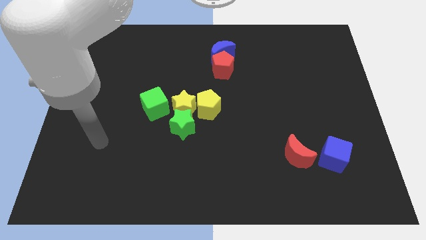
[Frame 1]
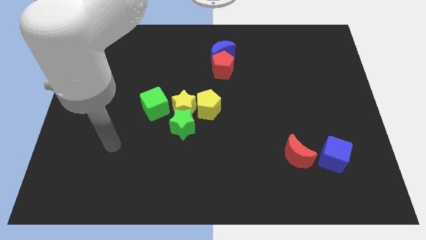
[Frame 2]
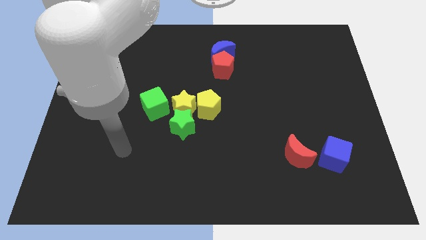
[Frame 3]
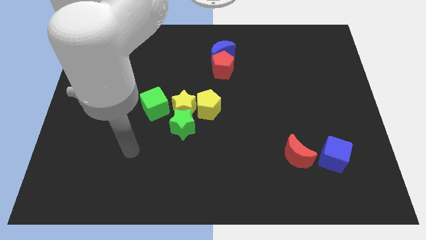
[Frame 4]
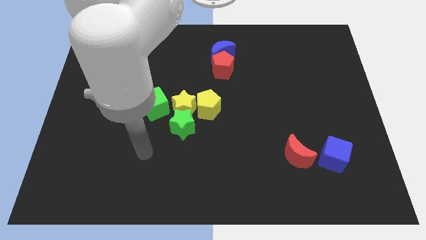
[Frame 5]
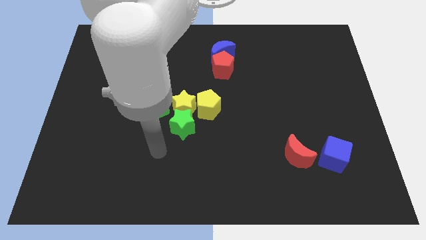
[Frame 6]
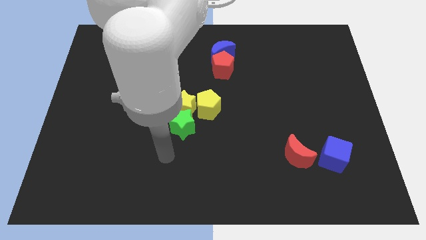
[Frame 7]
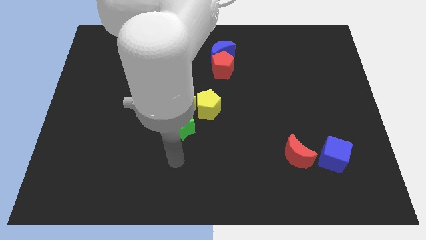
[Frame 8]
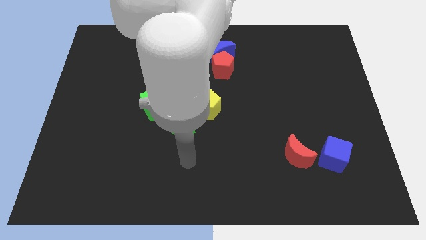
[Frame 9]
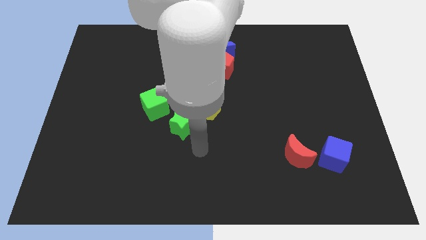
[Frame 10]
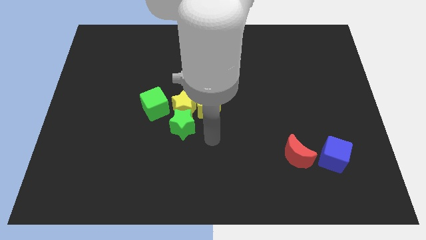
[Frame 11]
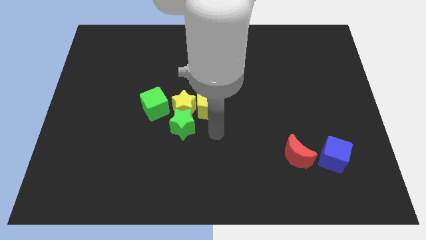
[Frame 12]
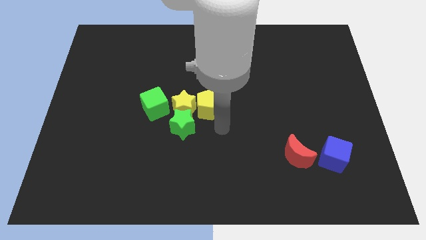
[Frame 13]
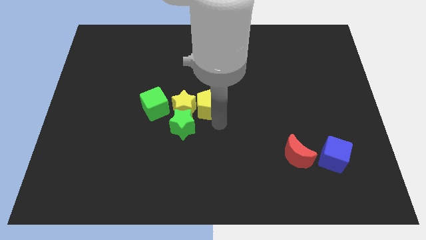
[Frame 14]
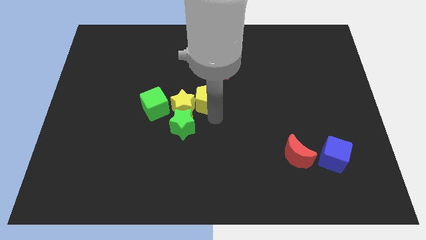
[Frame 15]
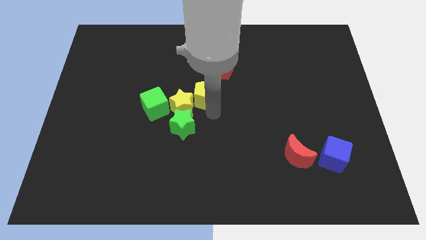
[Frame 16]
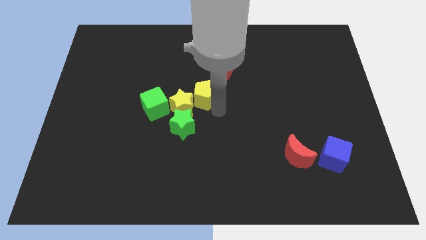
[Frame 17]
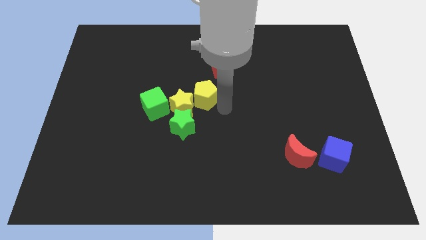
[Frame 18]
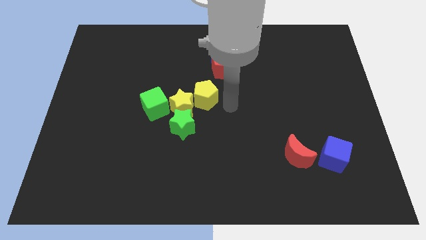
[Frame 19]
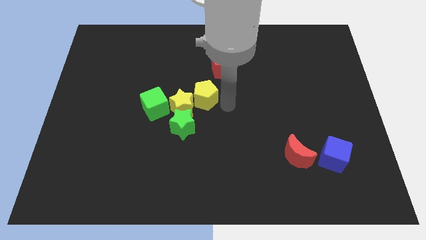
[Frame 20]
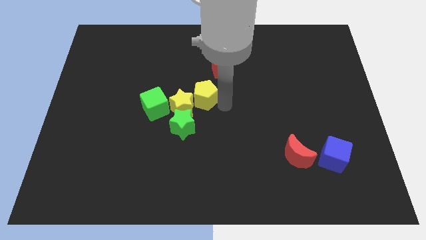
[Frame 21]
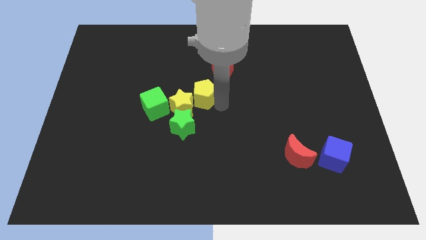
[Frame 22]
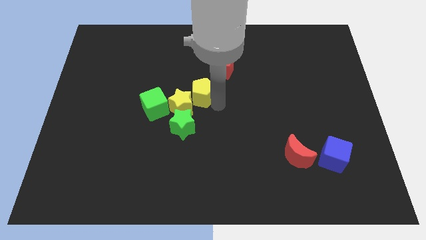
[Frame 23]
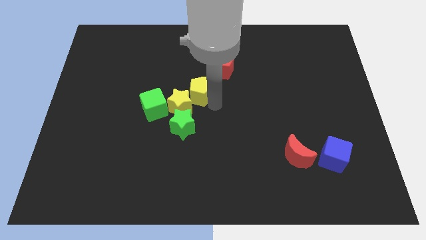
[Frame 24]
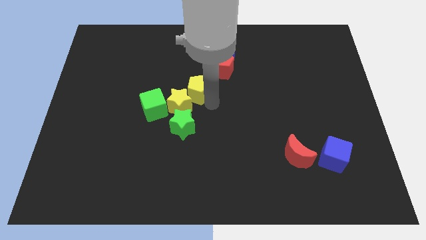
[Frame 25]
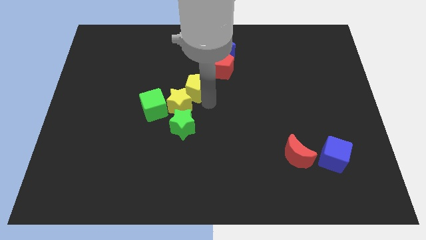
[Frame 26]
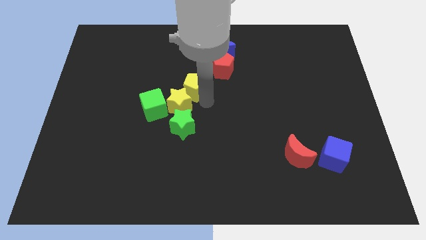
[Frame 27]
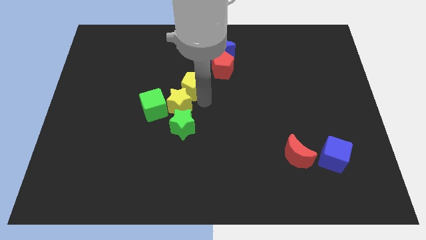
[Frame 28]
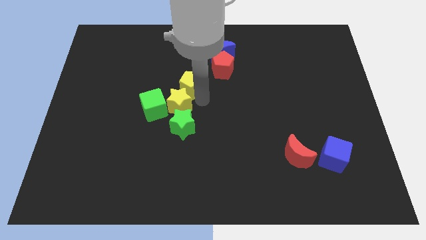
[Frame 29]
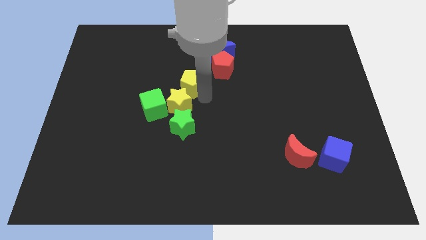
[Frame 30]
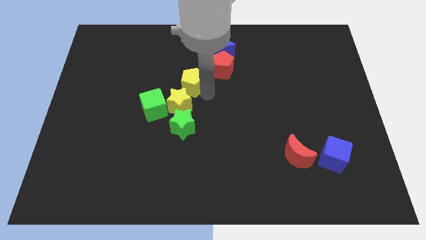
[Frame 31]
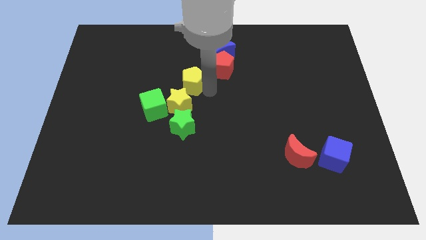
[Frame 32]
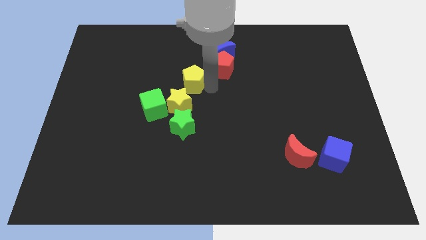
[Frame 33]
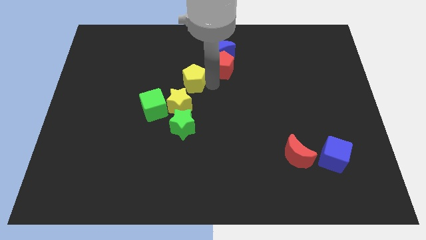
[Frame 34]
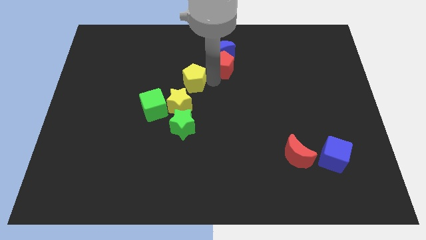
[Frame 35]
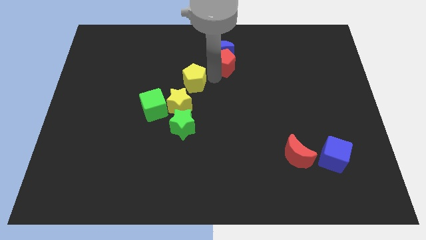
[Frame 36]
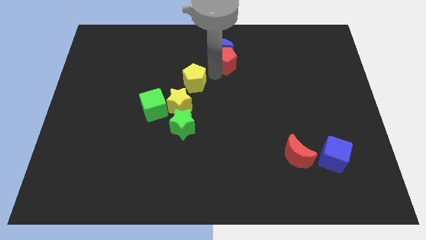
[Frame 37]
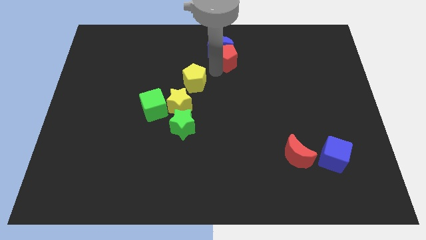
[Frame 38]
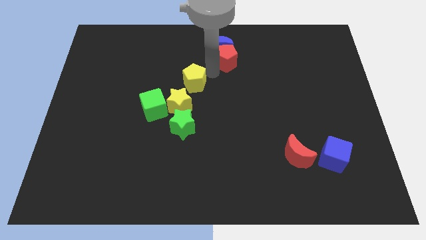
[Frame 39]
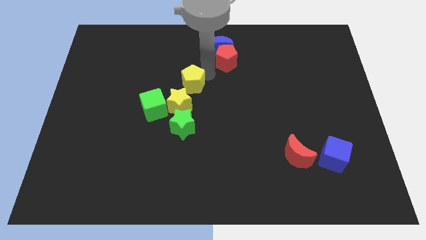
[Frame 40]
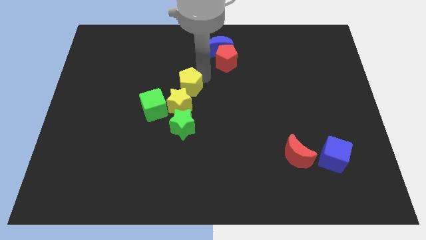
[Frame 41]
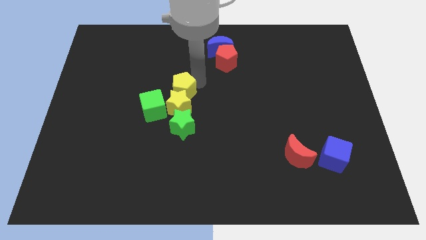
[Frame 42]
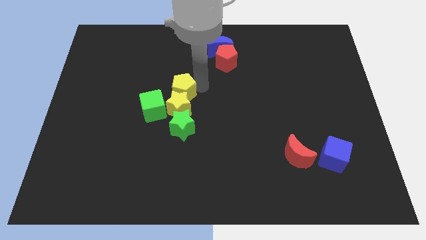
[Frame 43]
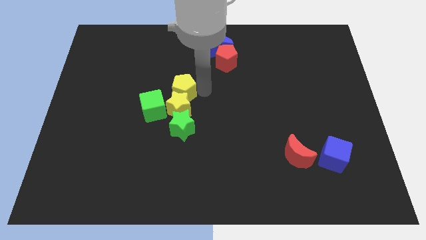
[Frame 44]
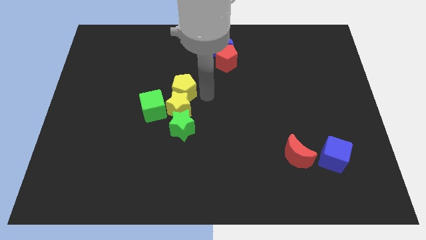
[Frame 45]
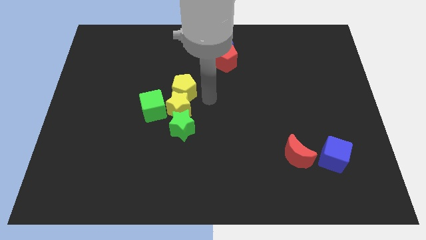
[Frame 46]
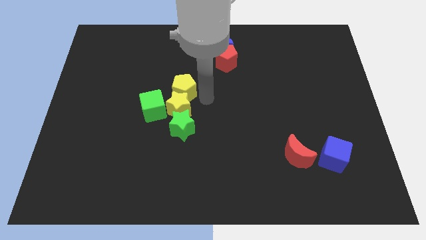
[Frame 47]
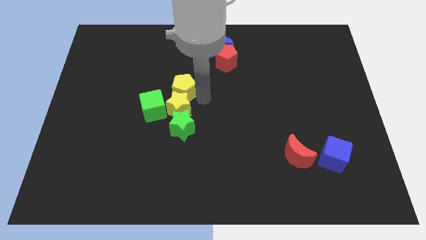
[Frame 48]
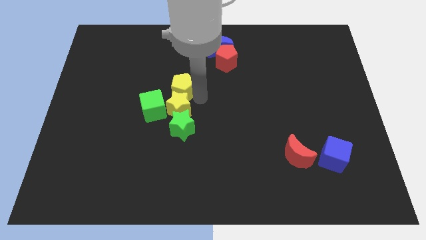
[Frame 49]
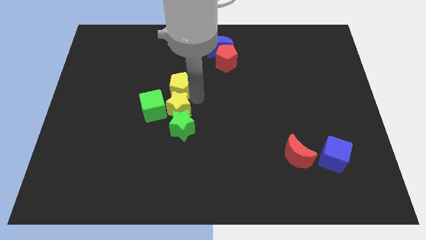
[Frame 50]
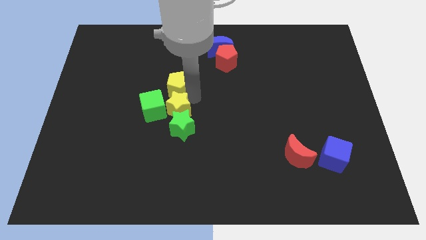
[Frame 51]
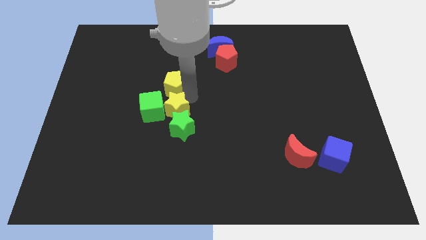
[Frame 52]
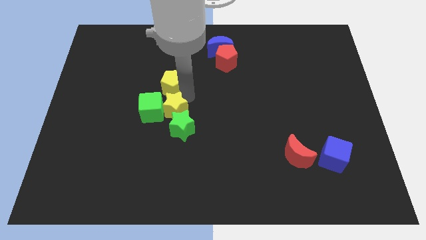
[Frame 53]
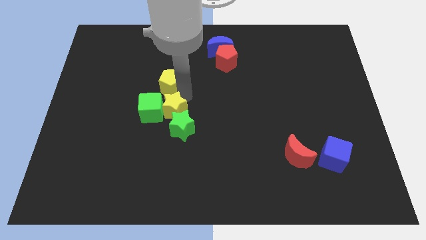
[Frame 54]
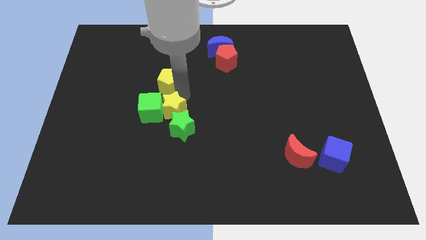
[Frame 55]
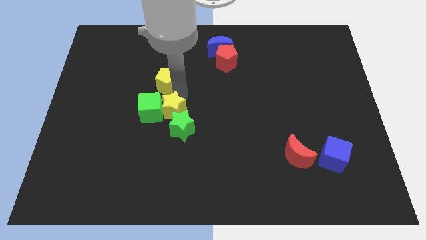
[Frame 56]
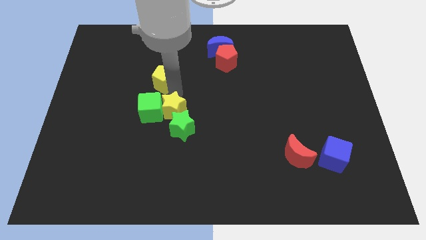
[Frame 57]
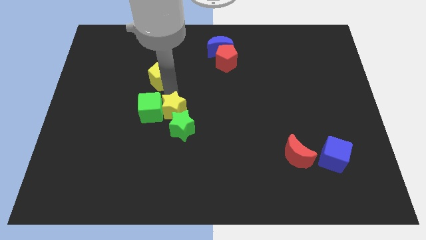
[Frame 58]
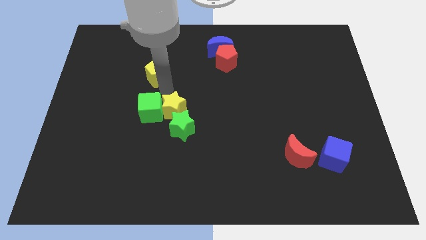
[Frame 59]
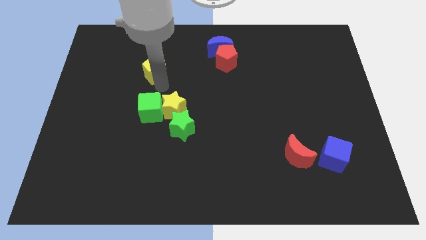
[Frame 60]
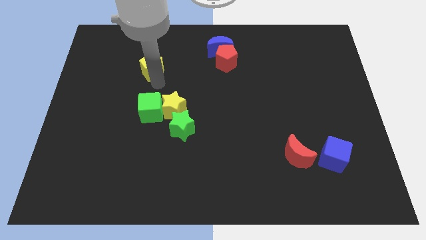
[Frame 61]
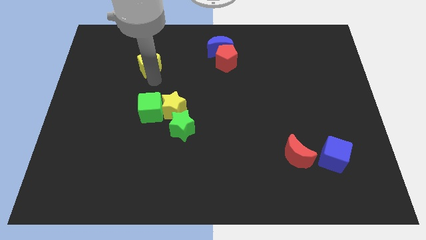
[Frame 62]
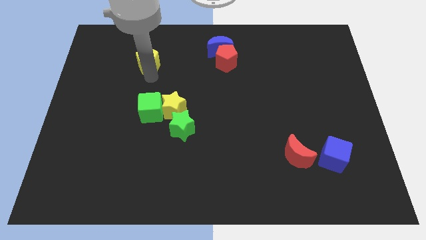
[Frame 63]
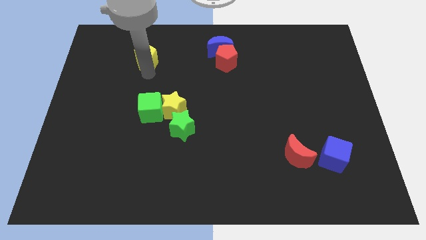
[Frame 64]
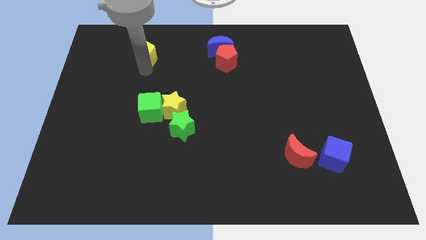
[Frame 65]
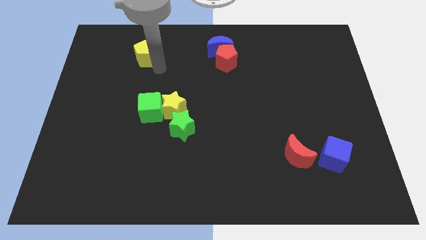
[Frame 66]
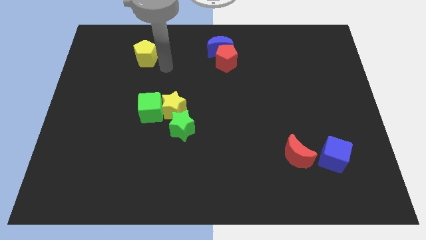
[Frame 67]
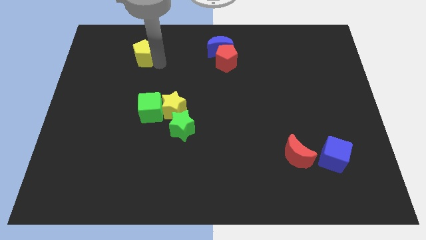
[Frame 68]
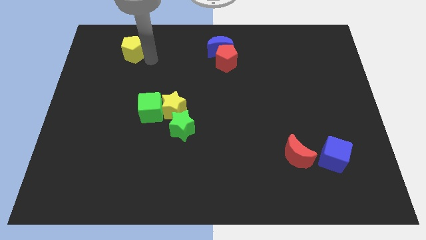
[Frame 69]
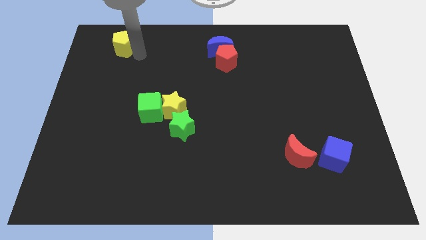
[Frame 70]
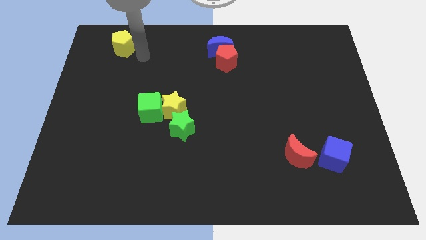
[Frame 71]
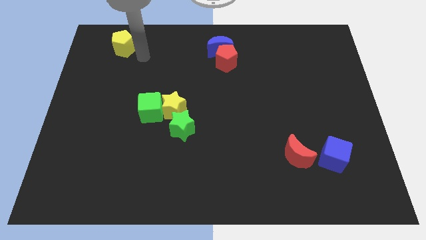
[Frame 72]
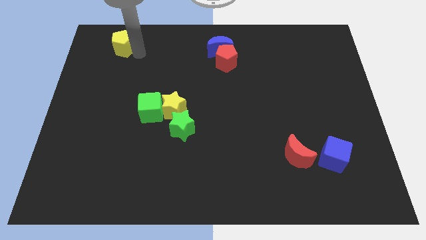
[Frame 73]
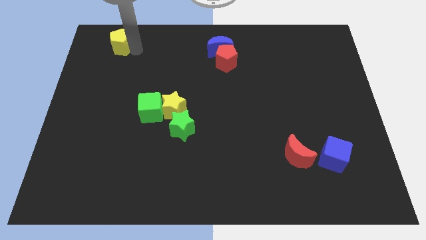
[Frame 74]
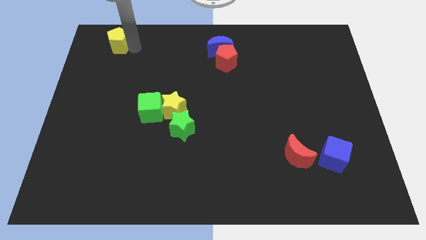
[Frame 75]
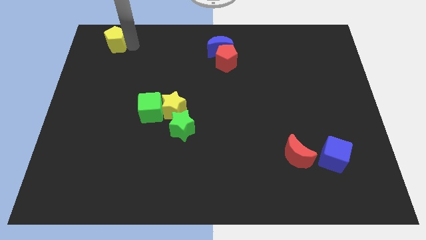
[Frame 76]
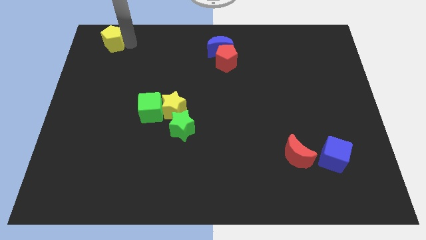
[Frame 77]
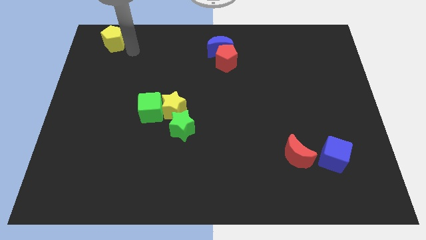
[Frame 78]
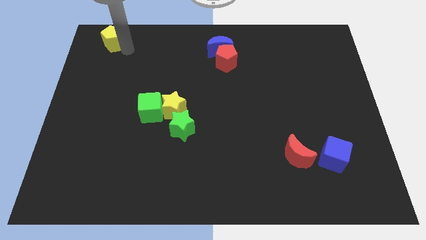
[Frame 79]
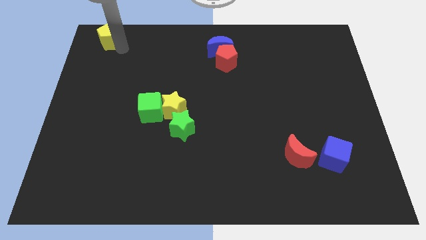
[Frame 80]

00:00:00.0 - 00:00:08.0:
slide the yellow pentagon to the upper left corner
